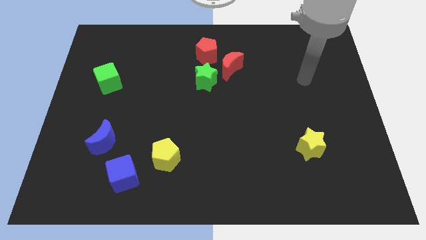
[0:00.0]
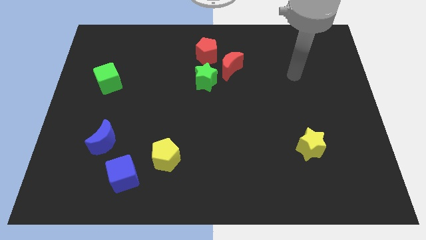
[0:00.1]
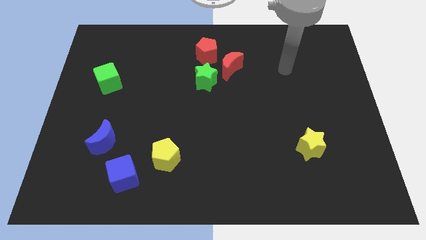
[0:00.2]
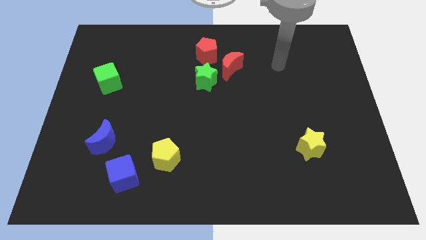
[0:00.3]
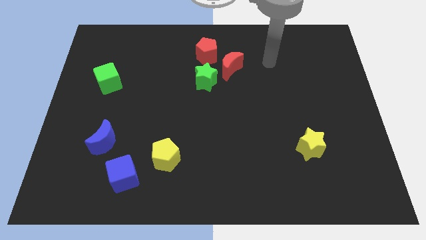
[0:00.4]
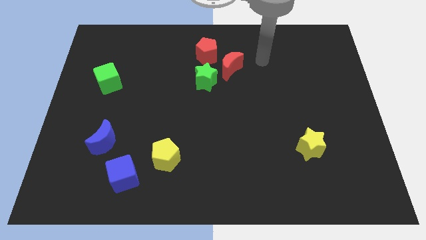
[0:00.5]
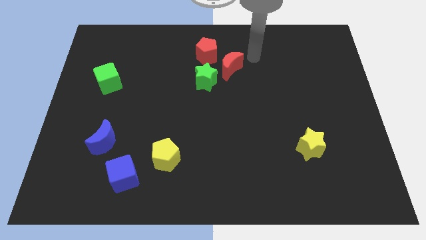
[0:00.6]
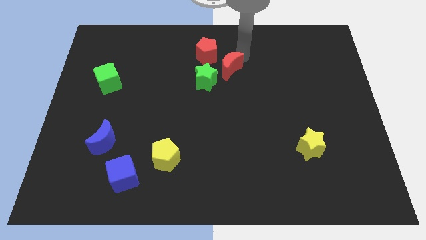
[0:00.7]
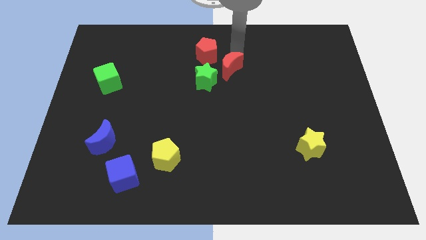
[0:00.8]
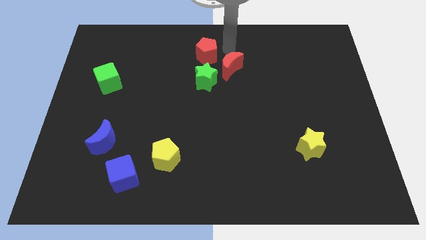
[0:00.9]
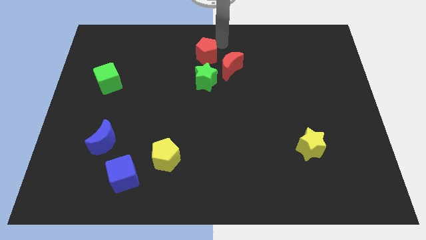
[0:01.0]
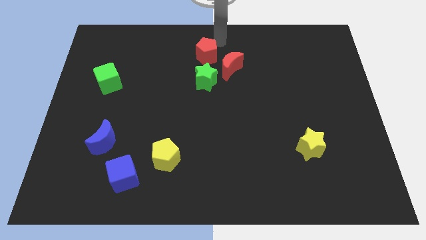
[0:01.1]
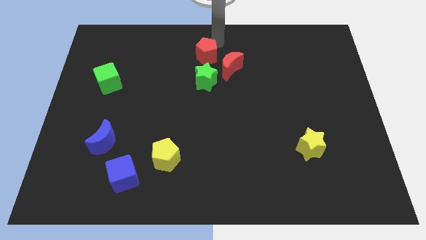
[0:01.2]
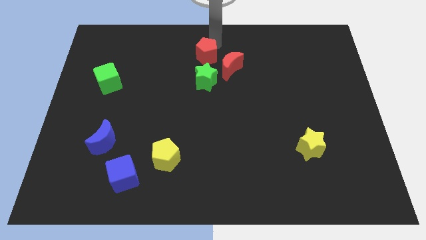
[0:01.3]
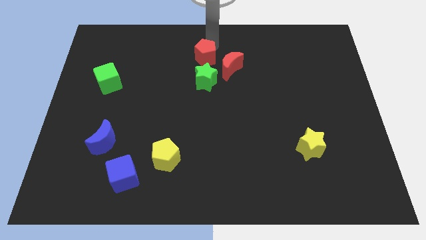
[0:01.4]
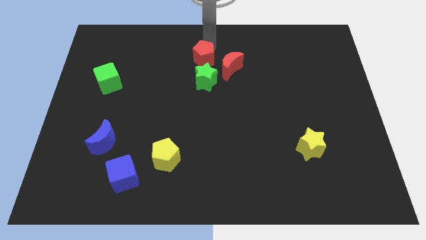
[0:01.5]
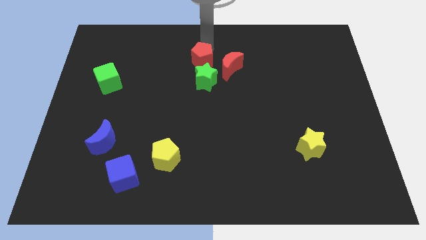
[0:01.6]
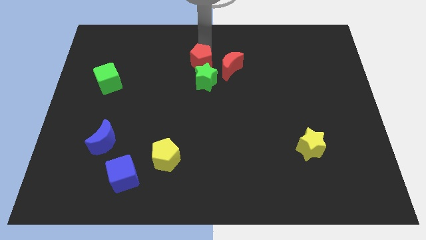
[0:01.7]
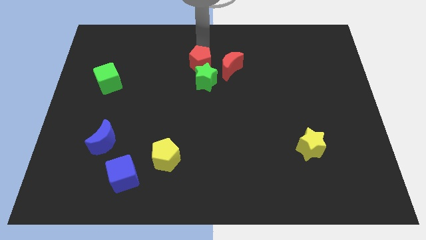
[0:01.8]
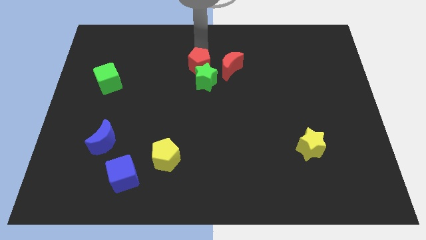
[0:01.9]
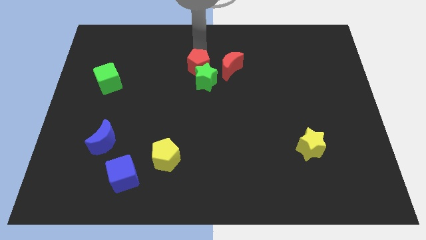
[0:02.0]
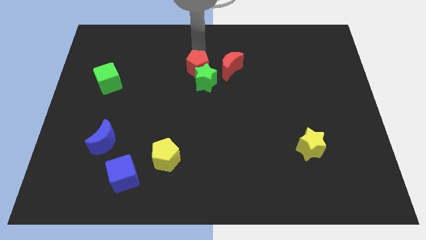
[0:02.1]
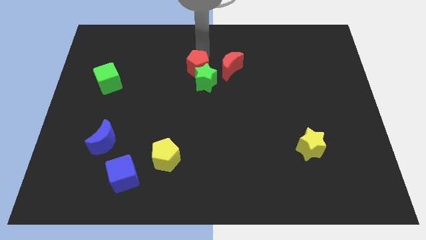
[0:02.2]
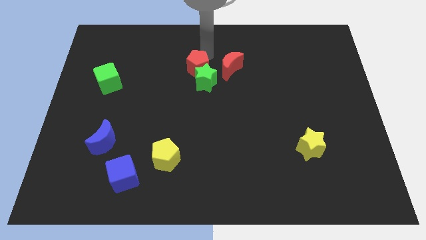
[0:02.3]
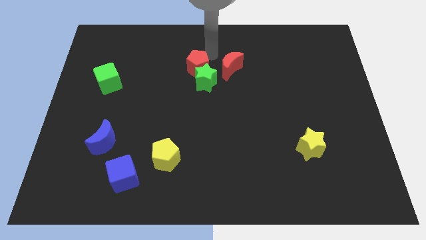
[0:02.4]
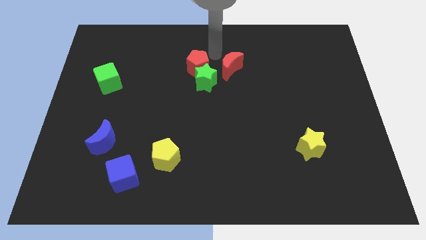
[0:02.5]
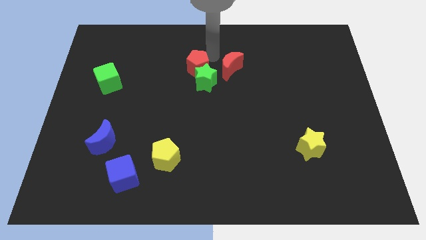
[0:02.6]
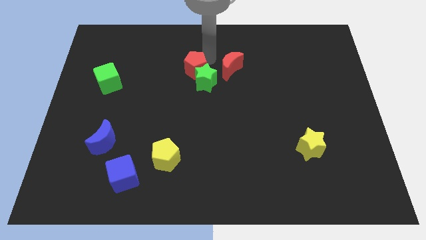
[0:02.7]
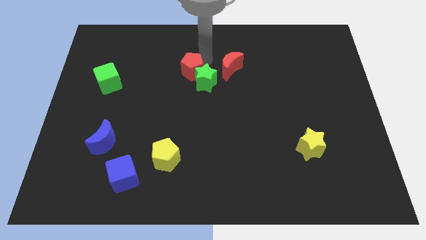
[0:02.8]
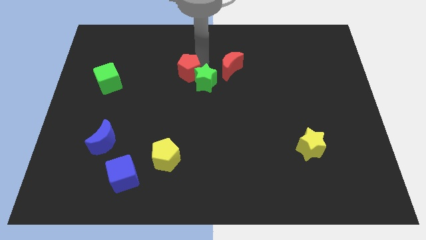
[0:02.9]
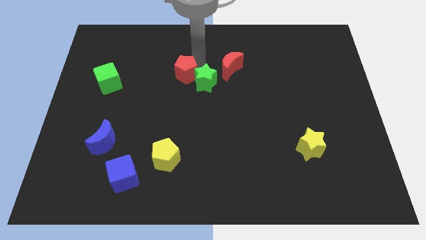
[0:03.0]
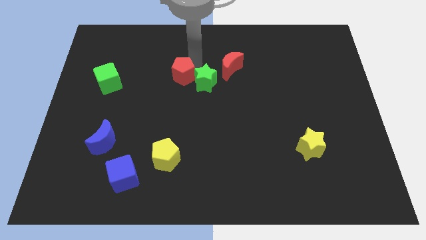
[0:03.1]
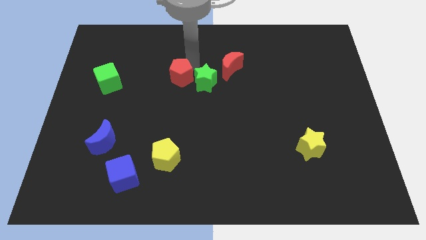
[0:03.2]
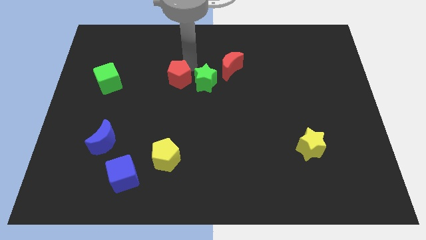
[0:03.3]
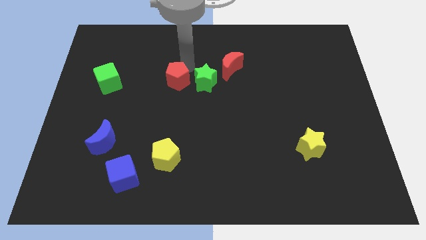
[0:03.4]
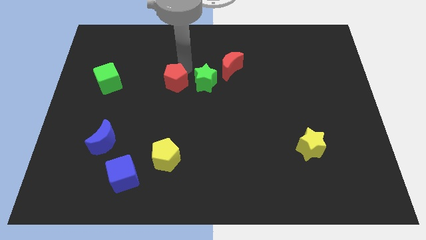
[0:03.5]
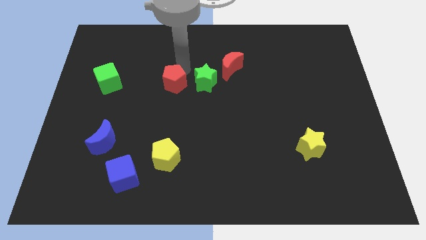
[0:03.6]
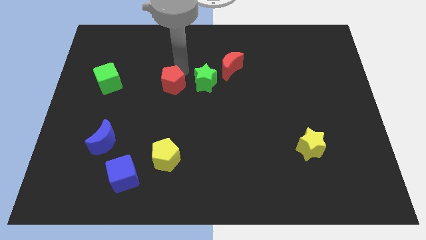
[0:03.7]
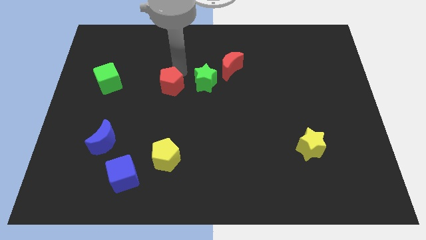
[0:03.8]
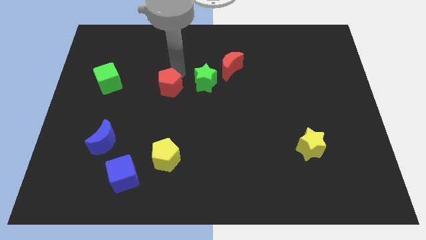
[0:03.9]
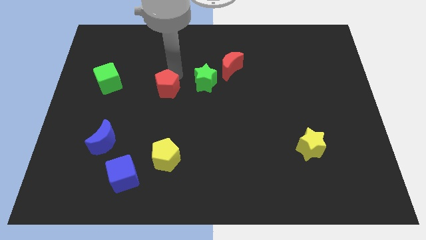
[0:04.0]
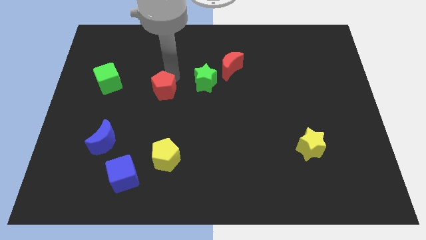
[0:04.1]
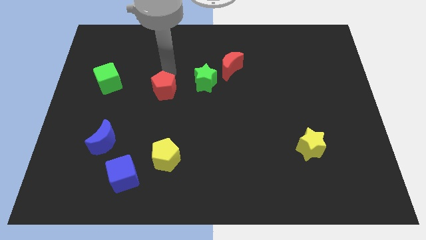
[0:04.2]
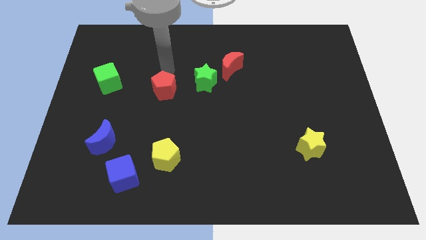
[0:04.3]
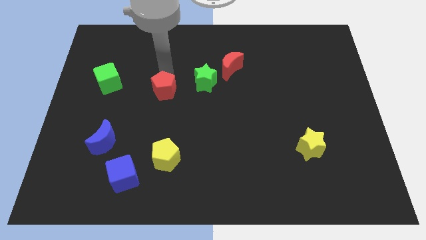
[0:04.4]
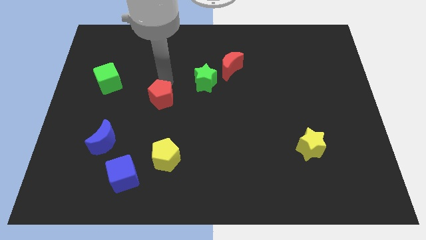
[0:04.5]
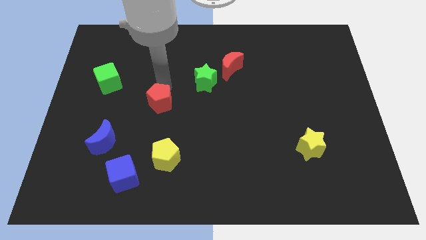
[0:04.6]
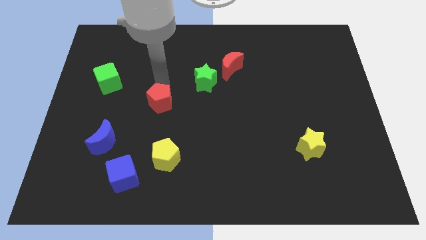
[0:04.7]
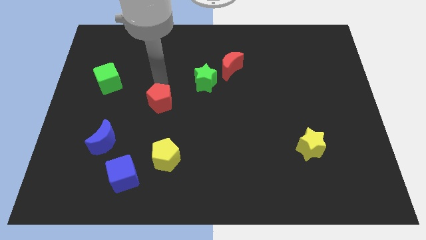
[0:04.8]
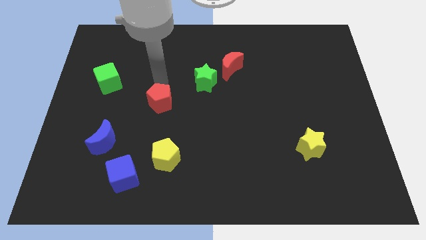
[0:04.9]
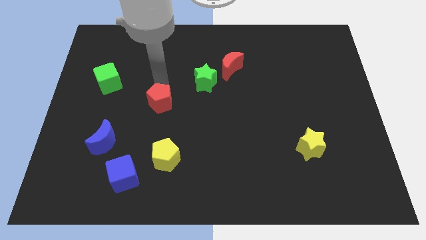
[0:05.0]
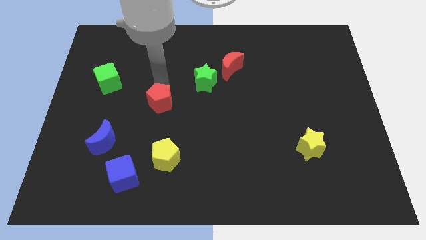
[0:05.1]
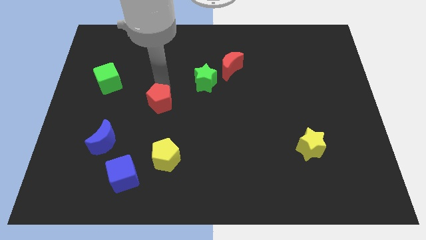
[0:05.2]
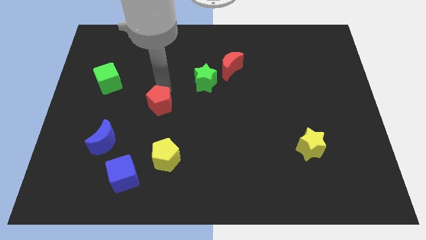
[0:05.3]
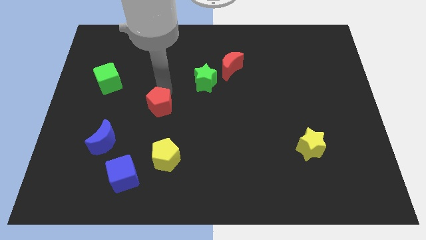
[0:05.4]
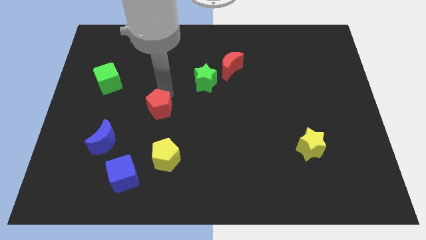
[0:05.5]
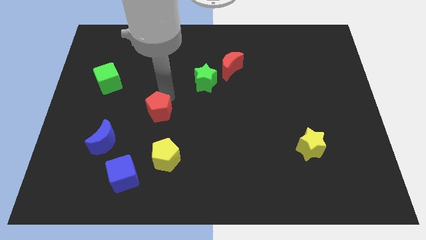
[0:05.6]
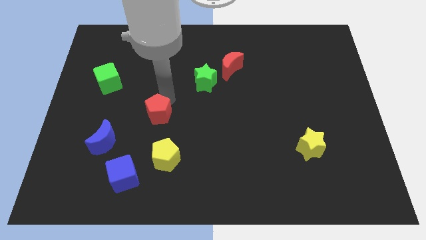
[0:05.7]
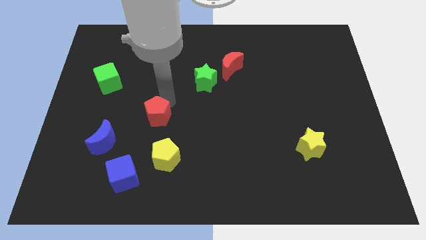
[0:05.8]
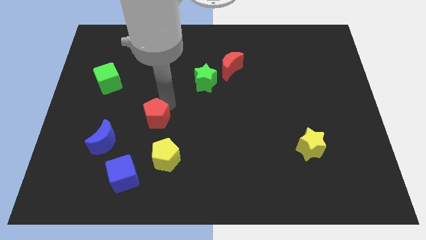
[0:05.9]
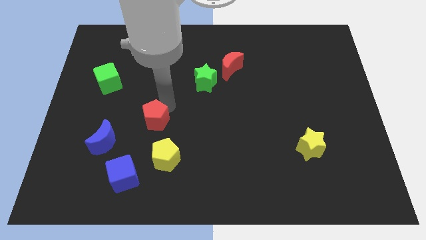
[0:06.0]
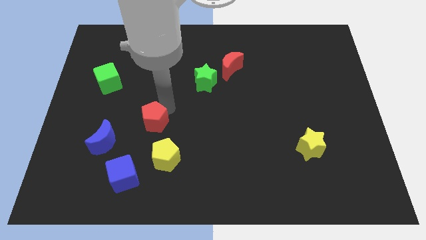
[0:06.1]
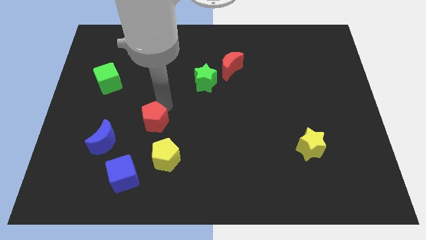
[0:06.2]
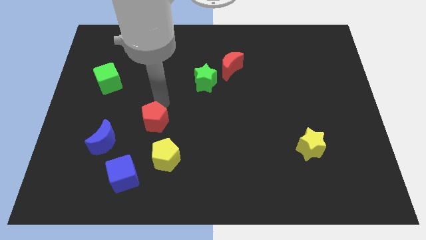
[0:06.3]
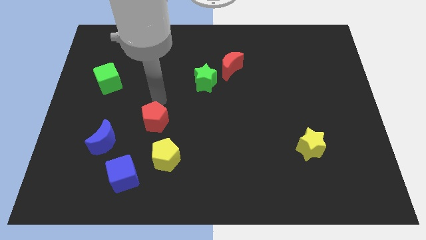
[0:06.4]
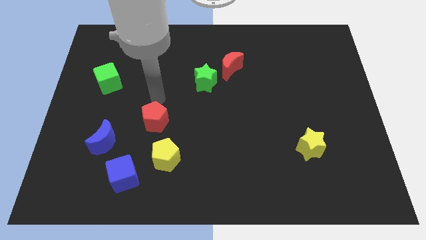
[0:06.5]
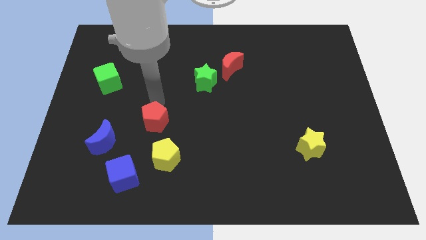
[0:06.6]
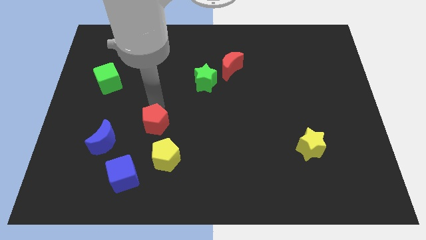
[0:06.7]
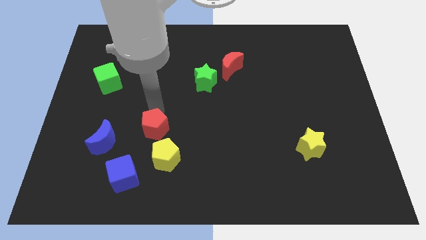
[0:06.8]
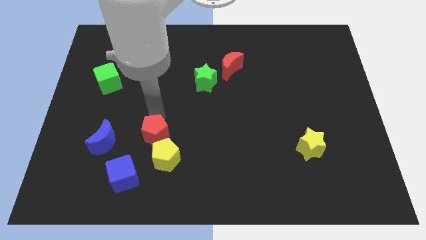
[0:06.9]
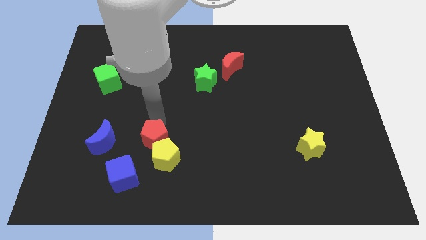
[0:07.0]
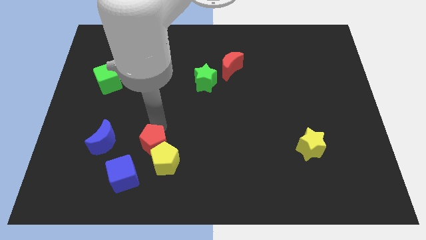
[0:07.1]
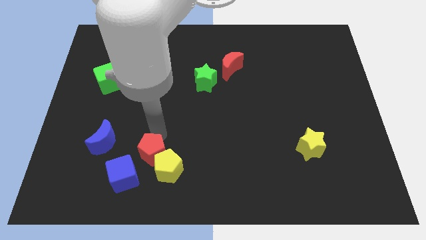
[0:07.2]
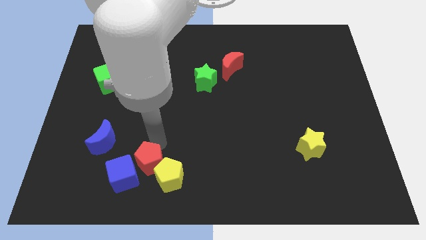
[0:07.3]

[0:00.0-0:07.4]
put the red pentagon next to the blue cube
